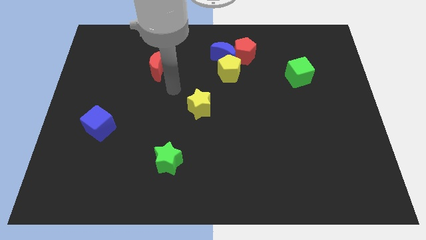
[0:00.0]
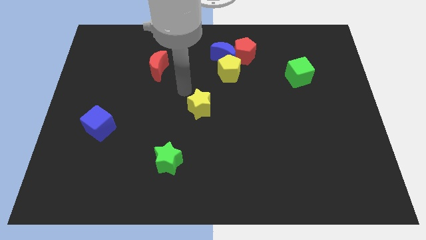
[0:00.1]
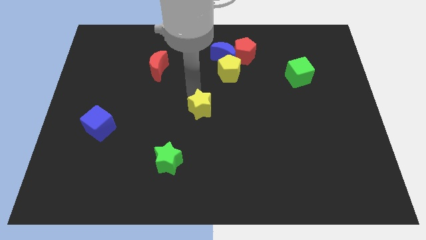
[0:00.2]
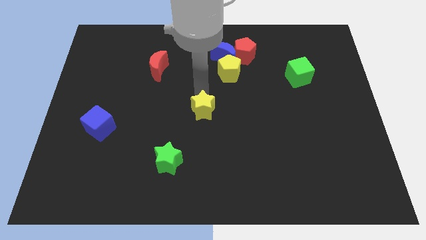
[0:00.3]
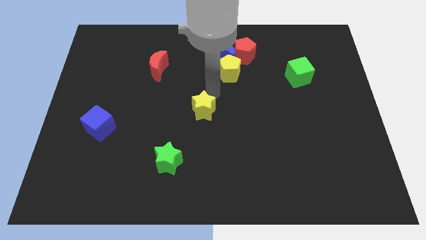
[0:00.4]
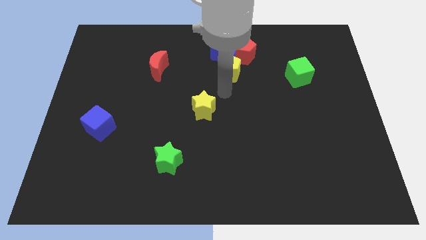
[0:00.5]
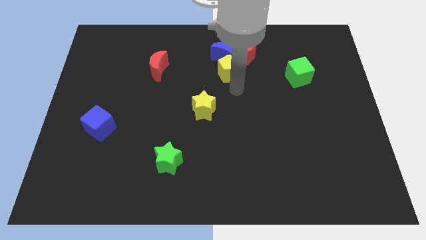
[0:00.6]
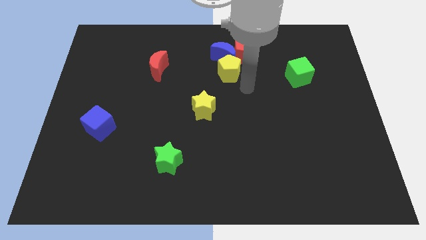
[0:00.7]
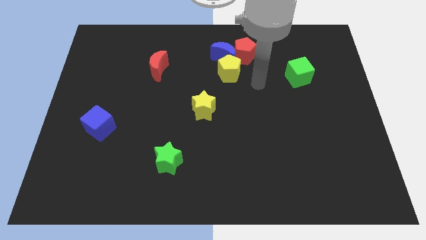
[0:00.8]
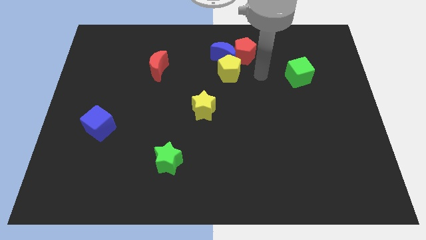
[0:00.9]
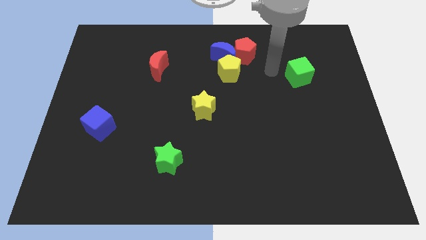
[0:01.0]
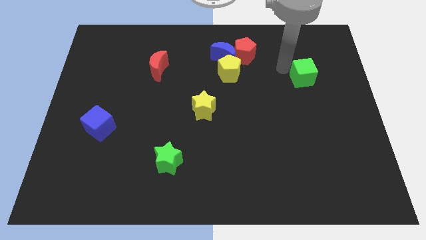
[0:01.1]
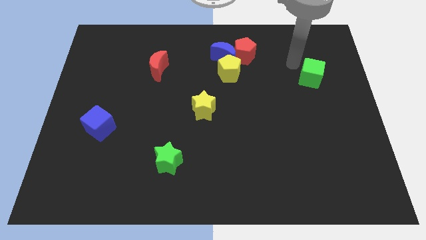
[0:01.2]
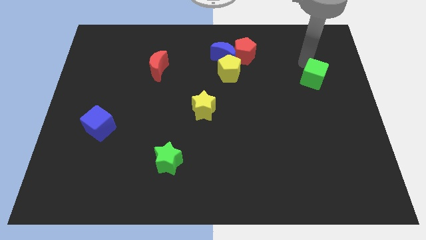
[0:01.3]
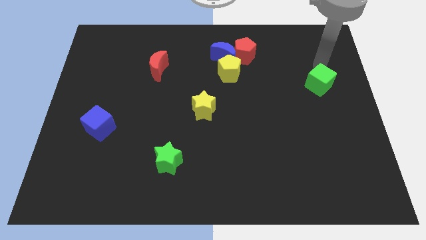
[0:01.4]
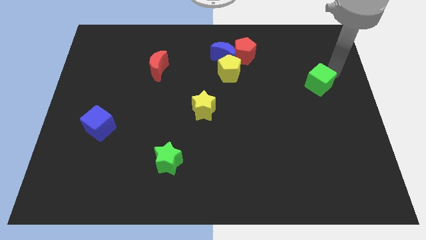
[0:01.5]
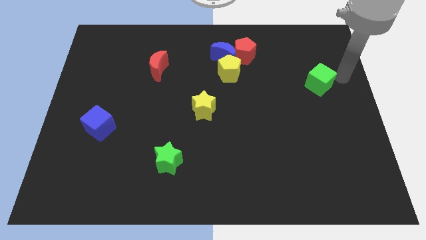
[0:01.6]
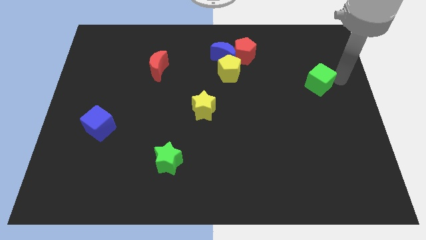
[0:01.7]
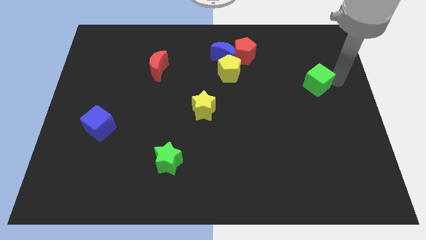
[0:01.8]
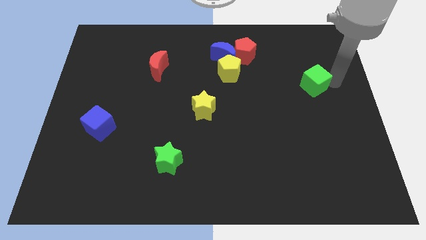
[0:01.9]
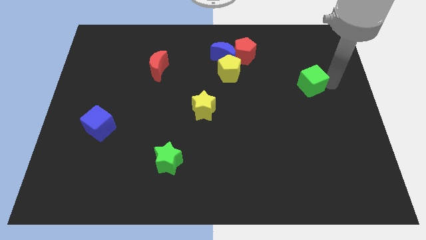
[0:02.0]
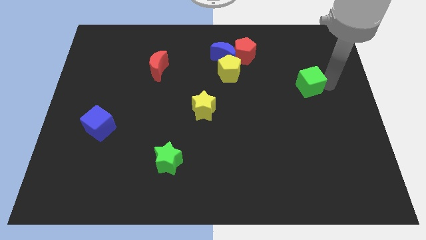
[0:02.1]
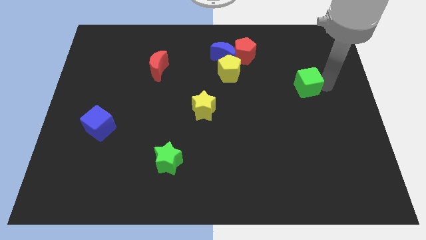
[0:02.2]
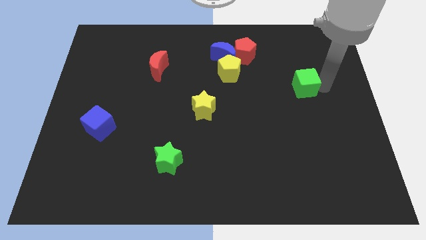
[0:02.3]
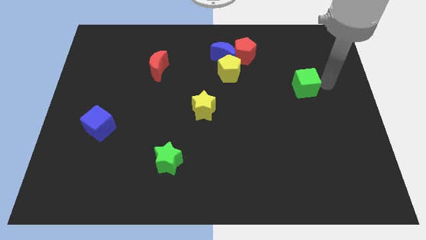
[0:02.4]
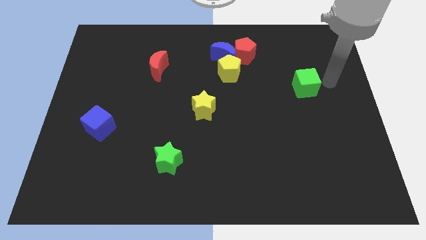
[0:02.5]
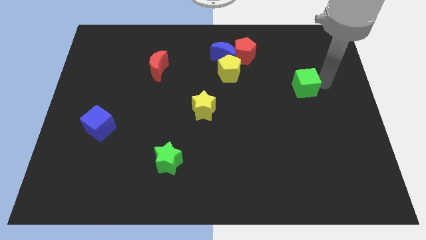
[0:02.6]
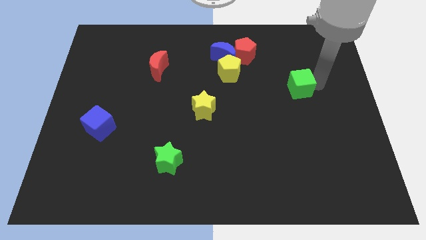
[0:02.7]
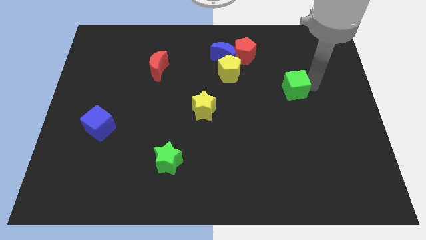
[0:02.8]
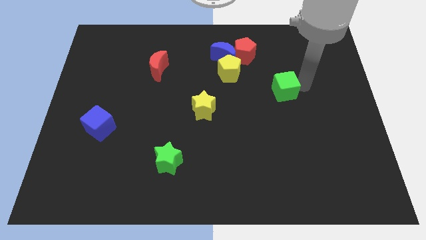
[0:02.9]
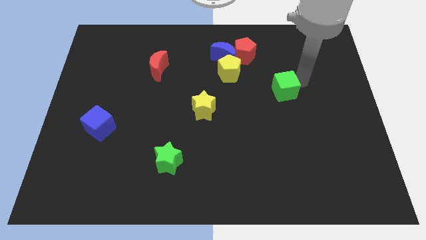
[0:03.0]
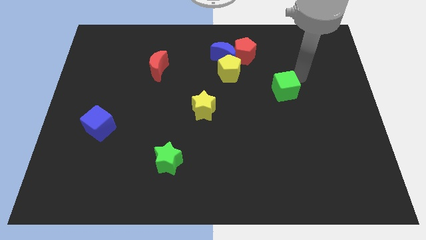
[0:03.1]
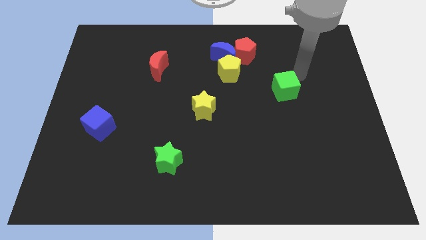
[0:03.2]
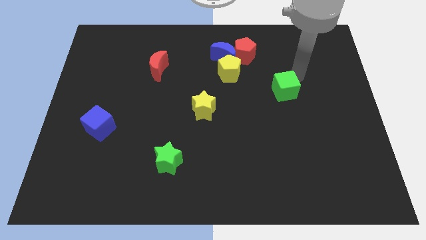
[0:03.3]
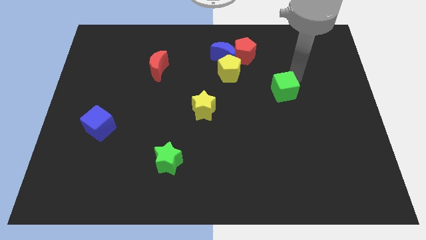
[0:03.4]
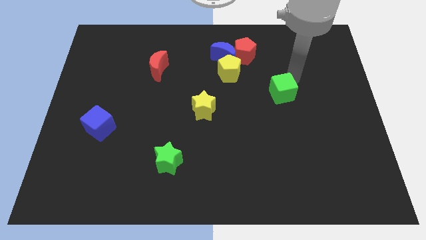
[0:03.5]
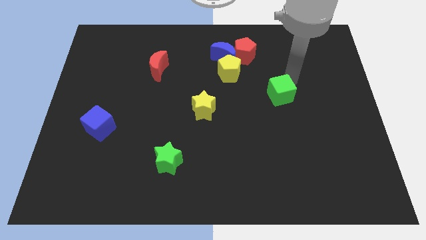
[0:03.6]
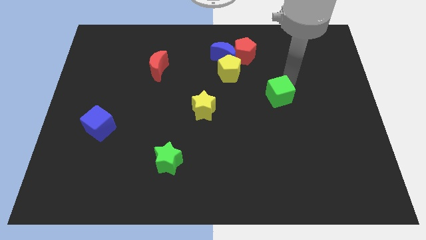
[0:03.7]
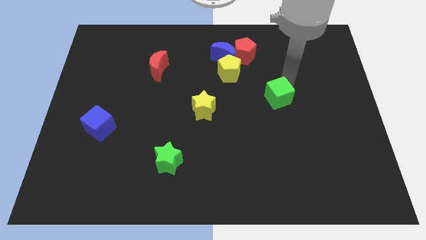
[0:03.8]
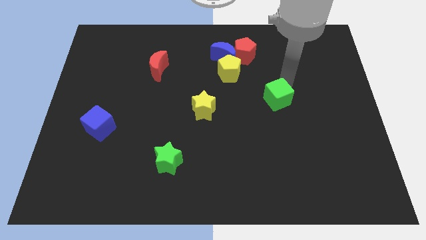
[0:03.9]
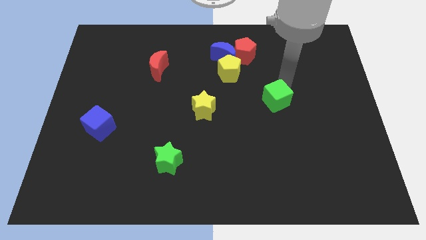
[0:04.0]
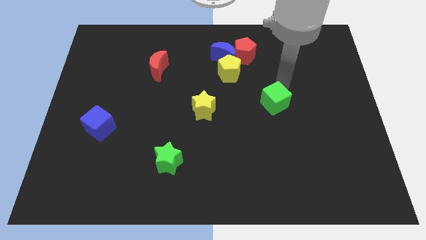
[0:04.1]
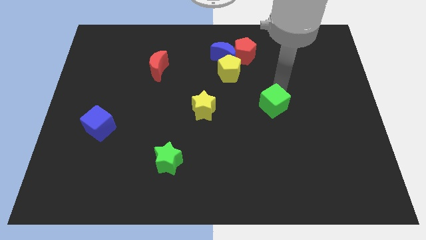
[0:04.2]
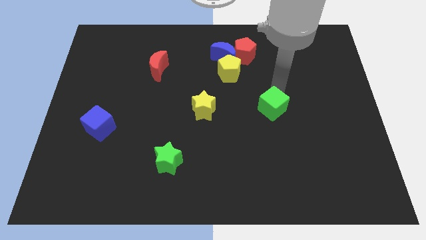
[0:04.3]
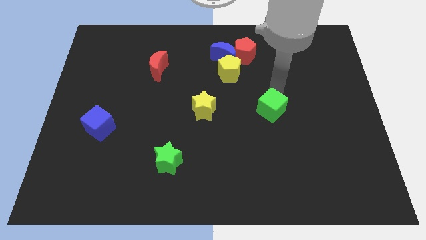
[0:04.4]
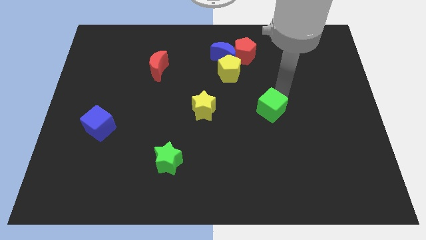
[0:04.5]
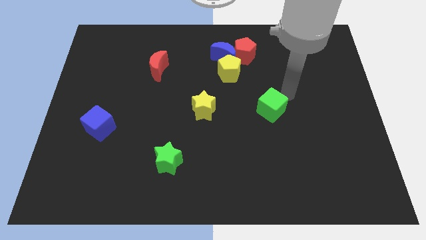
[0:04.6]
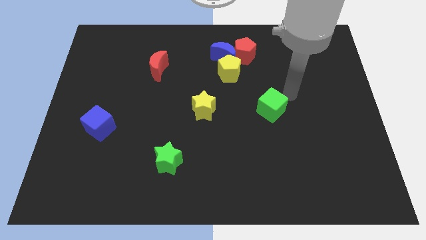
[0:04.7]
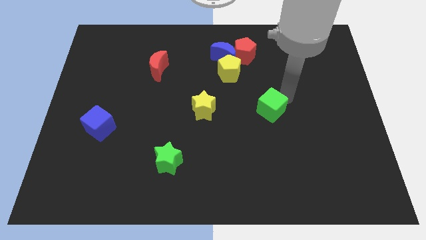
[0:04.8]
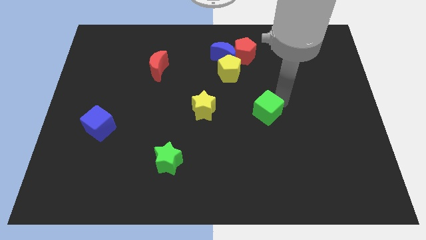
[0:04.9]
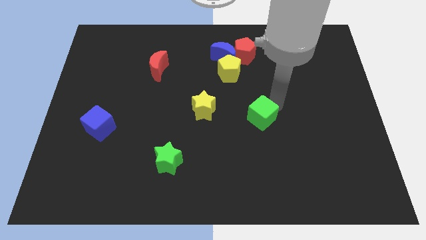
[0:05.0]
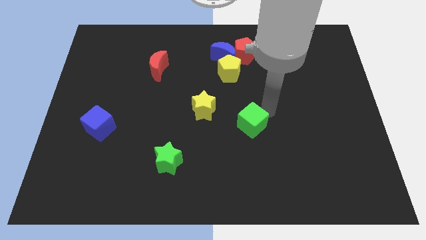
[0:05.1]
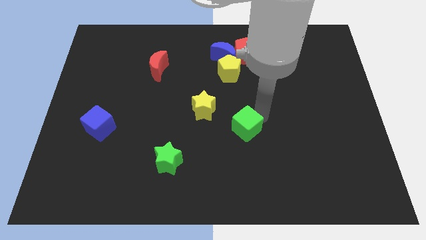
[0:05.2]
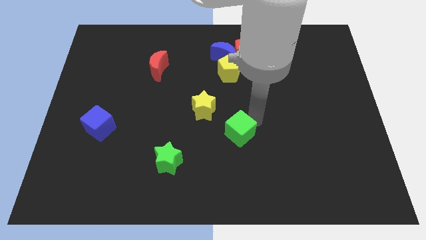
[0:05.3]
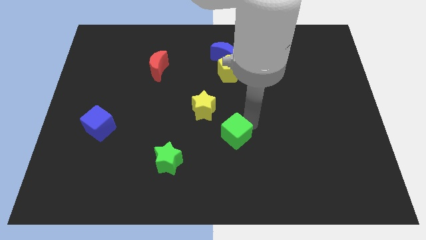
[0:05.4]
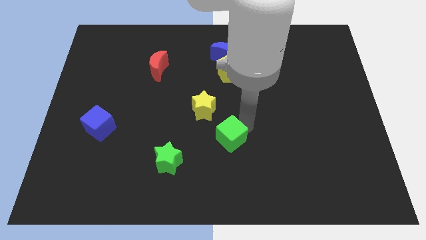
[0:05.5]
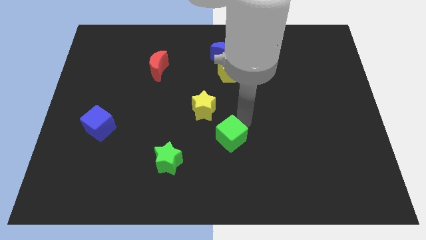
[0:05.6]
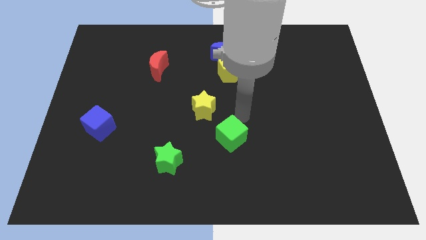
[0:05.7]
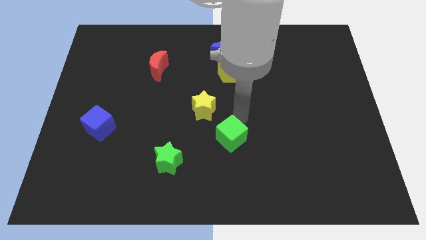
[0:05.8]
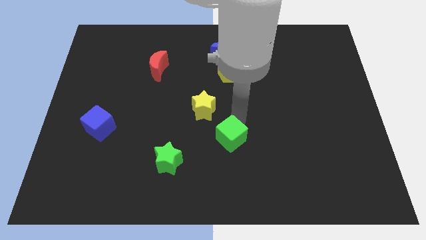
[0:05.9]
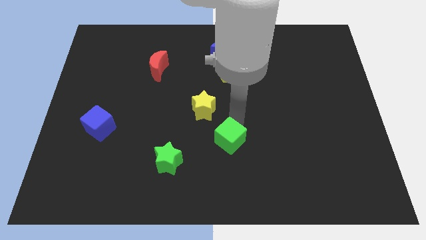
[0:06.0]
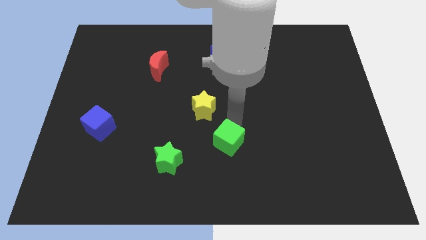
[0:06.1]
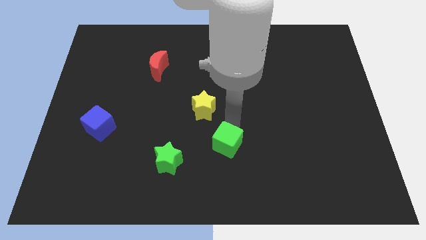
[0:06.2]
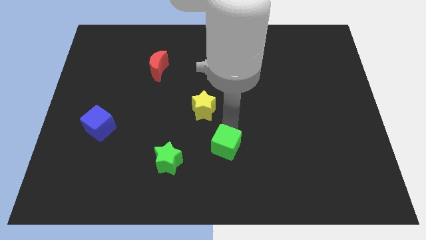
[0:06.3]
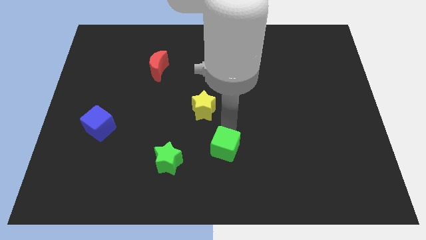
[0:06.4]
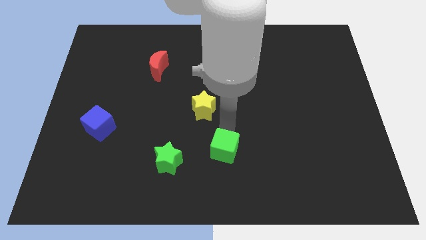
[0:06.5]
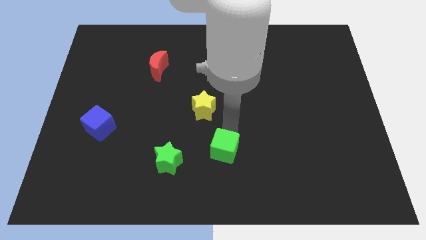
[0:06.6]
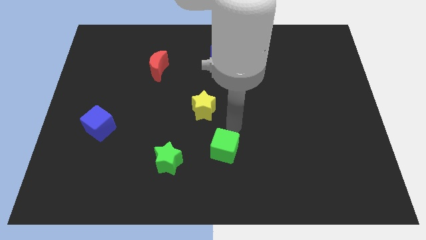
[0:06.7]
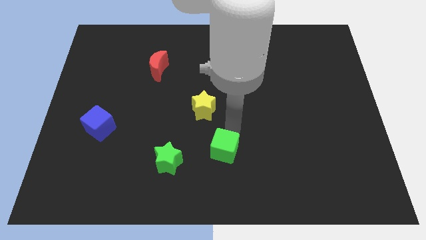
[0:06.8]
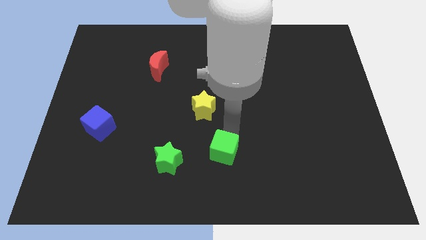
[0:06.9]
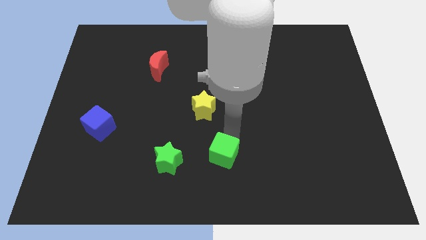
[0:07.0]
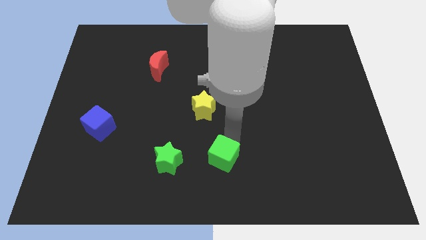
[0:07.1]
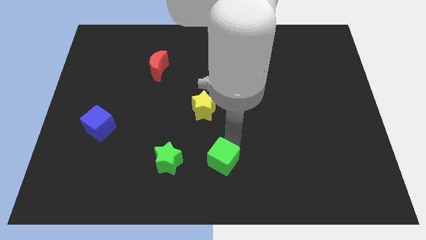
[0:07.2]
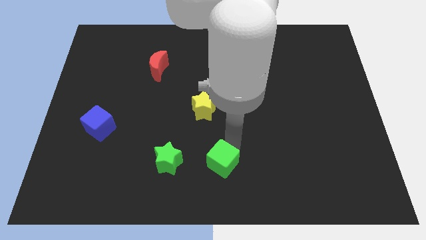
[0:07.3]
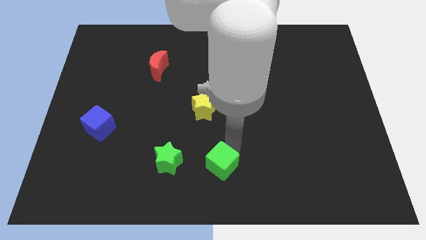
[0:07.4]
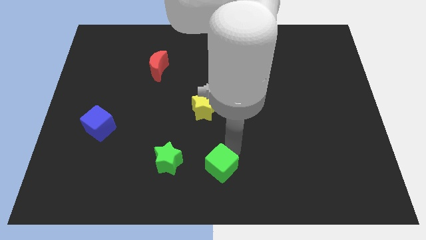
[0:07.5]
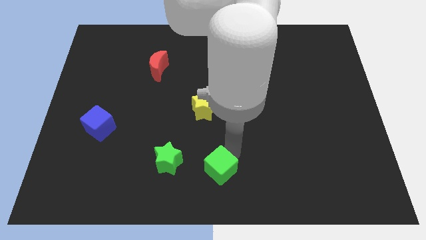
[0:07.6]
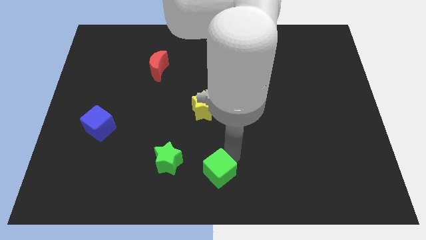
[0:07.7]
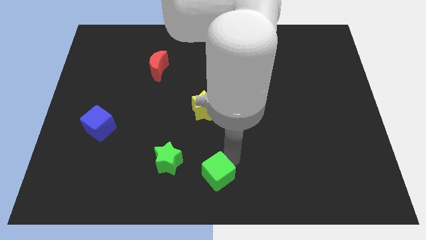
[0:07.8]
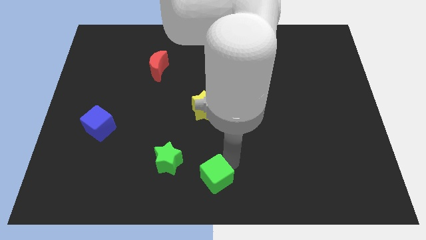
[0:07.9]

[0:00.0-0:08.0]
slide the green cube diagonally down and to the right of the green star
